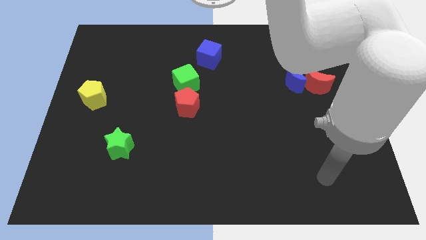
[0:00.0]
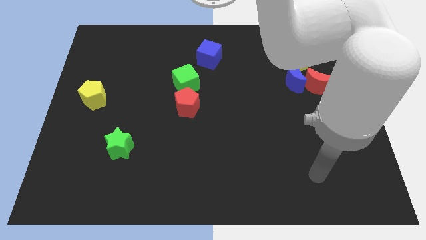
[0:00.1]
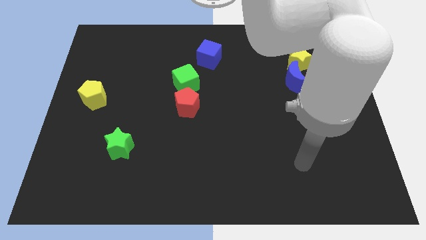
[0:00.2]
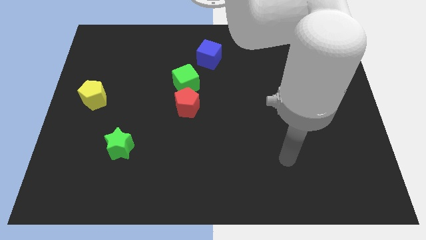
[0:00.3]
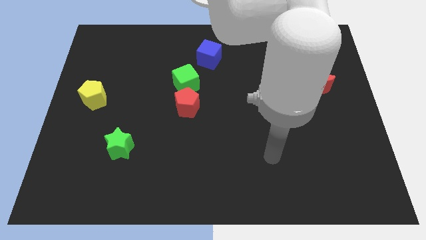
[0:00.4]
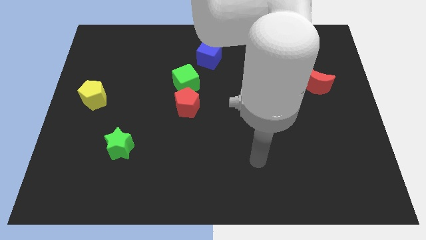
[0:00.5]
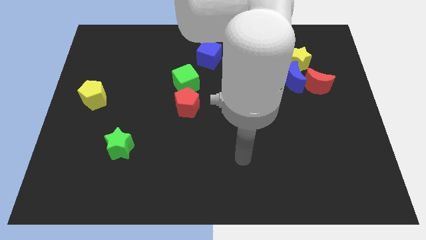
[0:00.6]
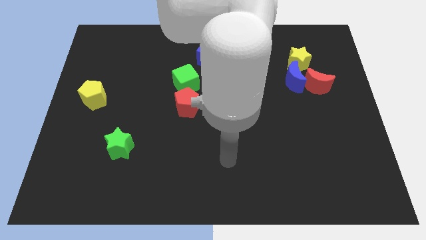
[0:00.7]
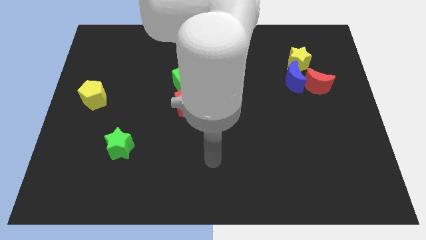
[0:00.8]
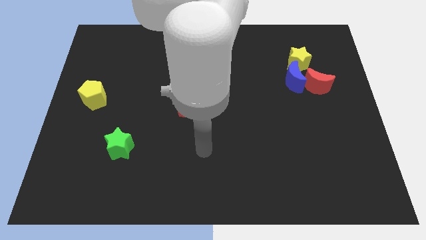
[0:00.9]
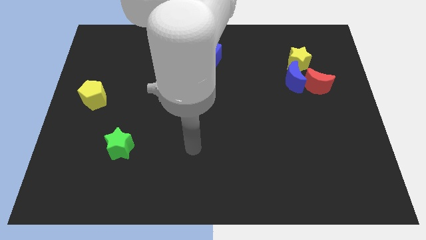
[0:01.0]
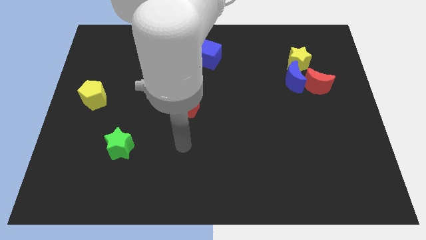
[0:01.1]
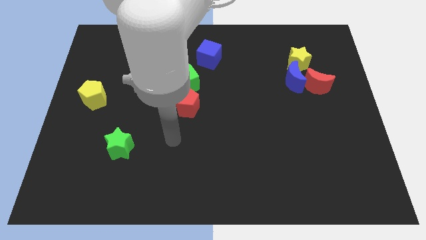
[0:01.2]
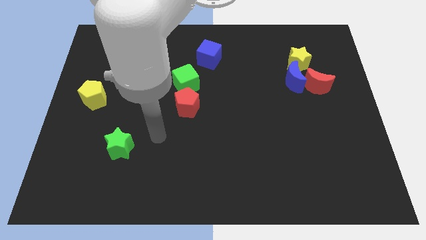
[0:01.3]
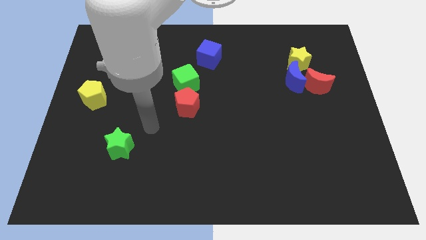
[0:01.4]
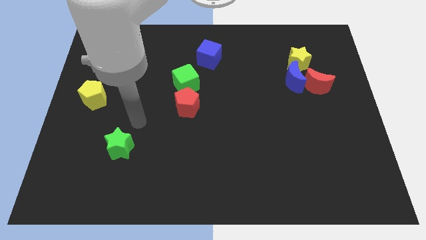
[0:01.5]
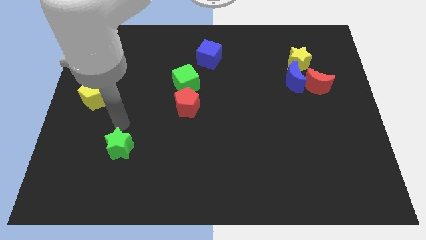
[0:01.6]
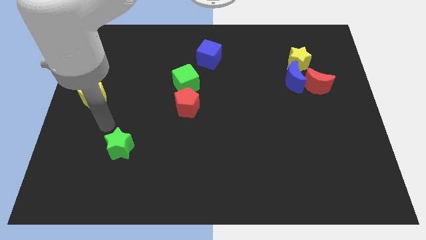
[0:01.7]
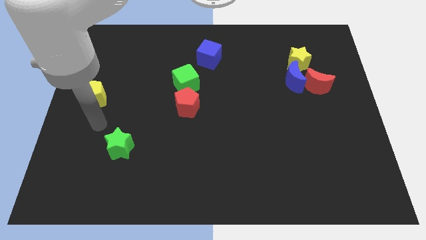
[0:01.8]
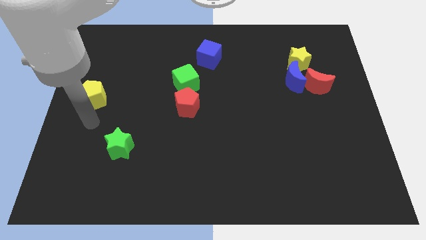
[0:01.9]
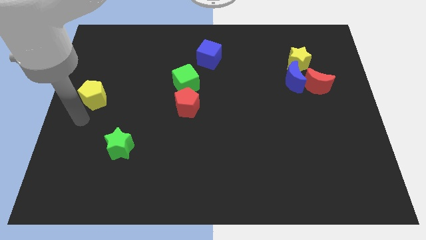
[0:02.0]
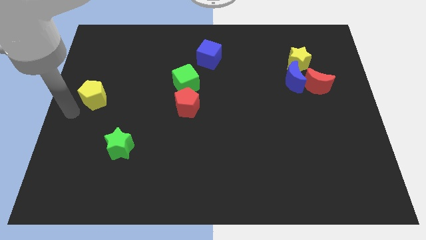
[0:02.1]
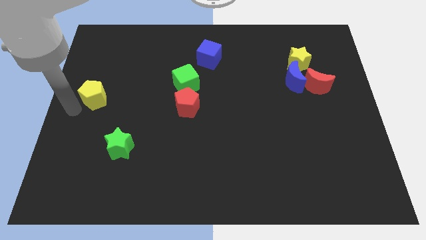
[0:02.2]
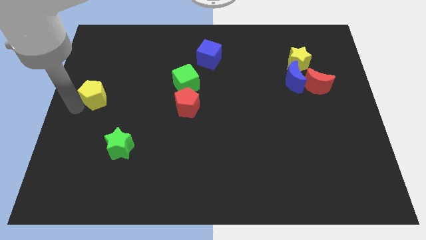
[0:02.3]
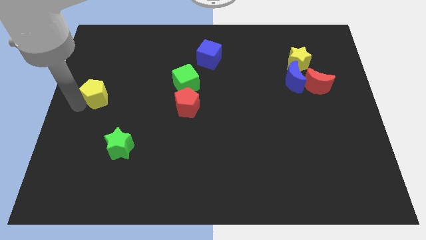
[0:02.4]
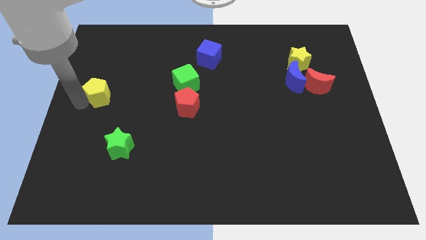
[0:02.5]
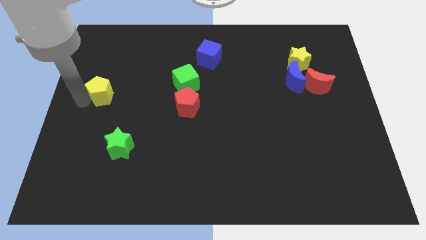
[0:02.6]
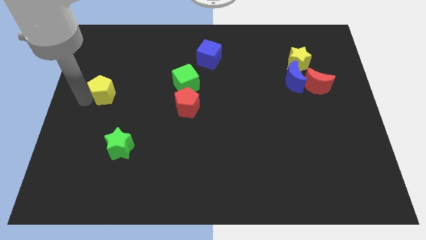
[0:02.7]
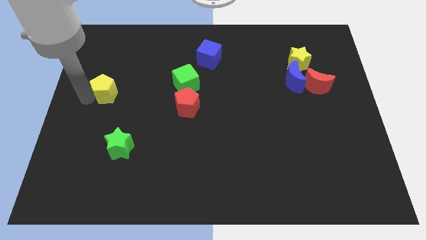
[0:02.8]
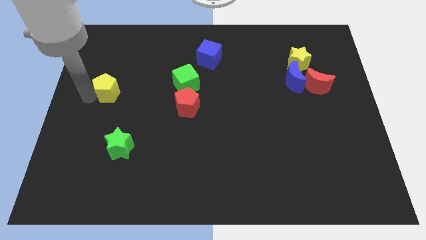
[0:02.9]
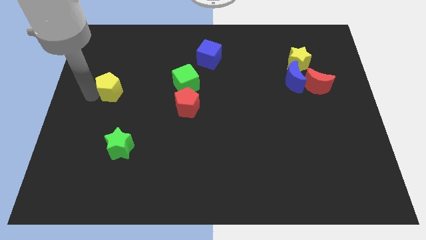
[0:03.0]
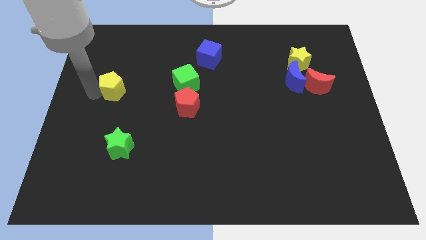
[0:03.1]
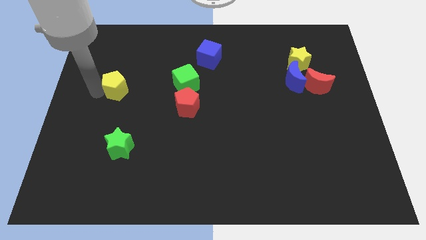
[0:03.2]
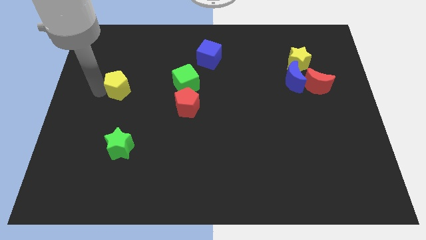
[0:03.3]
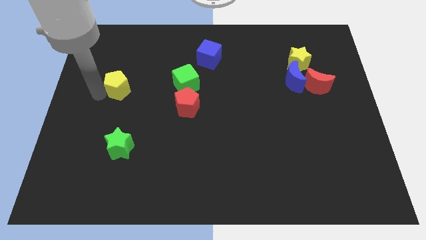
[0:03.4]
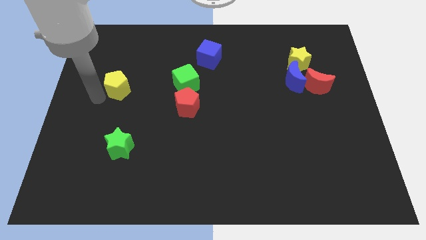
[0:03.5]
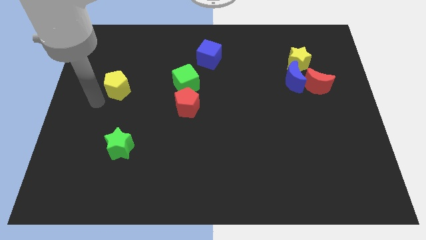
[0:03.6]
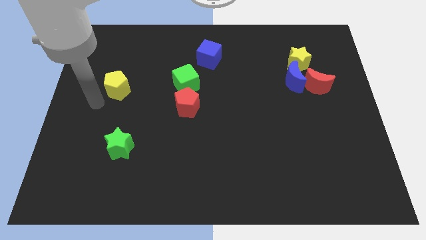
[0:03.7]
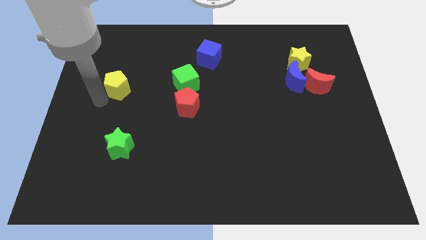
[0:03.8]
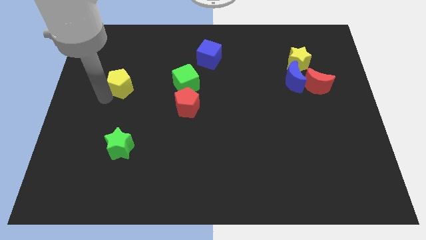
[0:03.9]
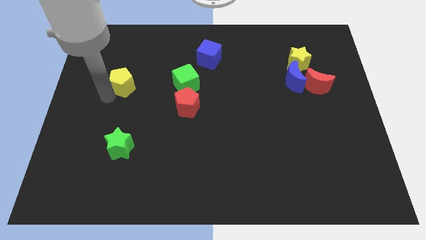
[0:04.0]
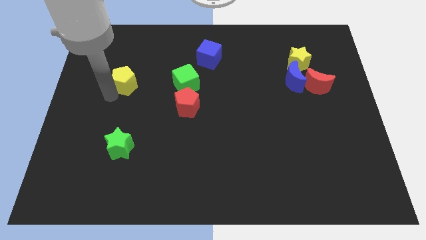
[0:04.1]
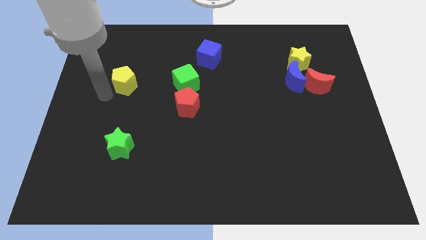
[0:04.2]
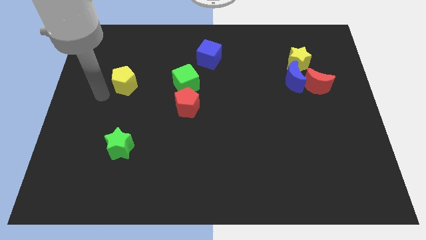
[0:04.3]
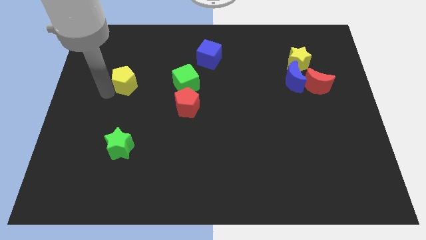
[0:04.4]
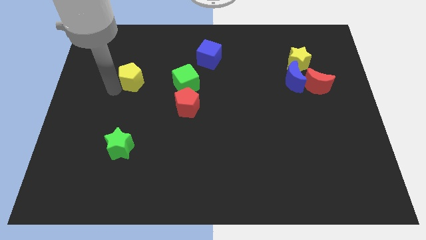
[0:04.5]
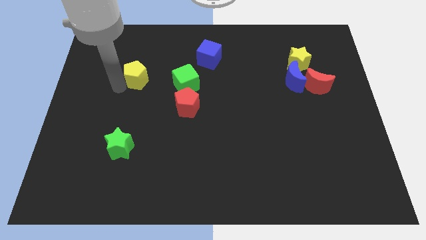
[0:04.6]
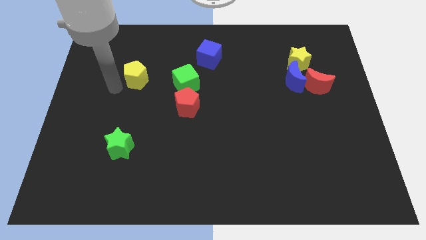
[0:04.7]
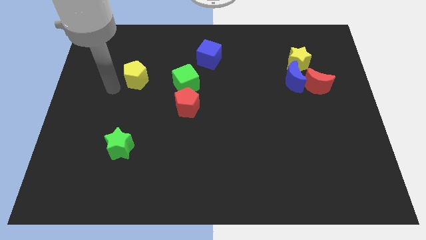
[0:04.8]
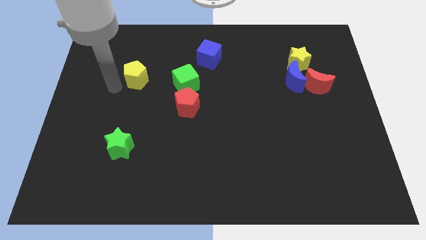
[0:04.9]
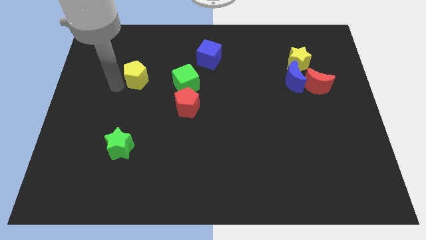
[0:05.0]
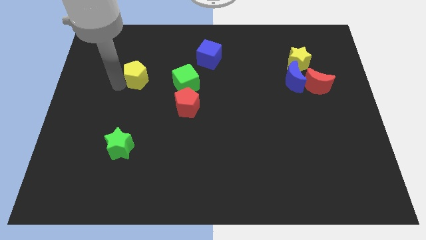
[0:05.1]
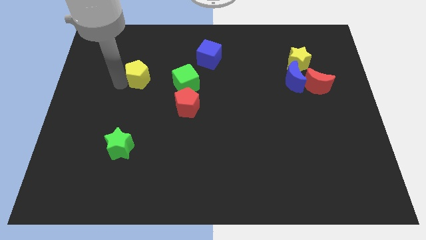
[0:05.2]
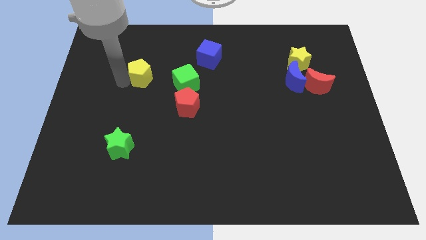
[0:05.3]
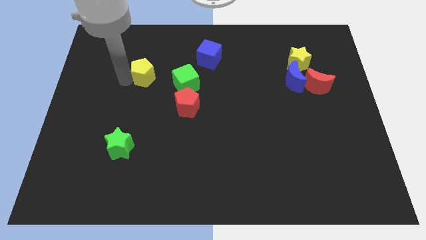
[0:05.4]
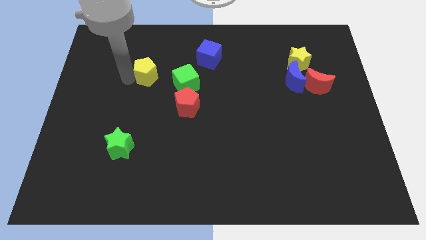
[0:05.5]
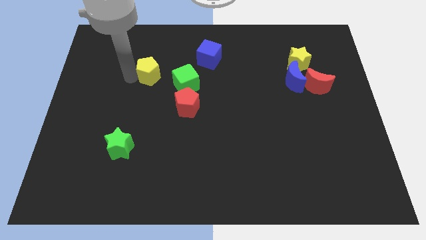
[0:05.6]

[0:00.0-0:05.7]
move the yellow pentagon to the top left side of the green cube

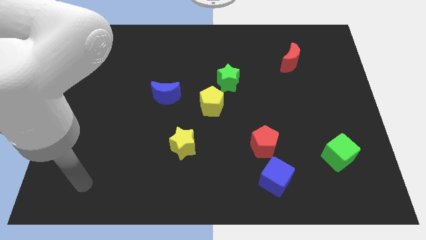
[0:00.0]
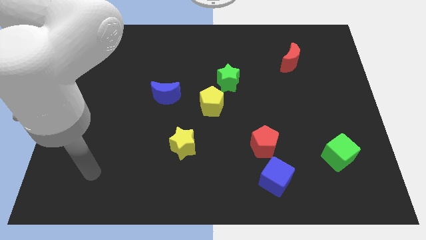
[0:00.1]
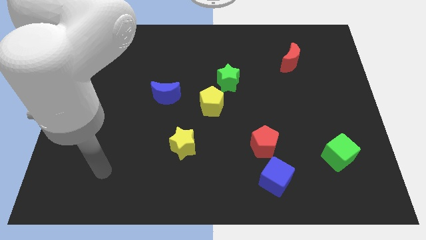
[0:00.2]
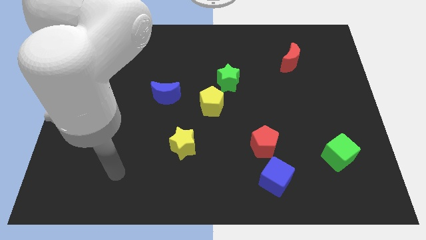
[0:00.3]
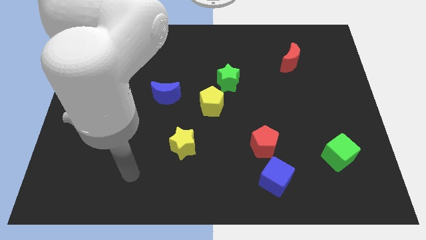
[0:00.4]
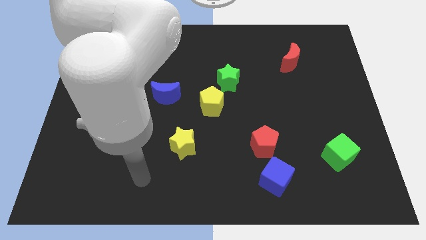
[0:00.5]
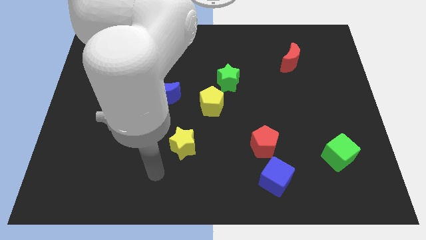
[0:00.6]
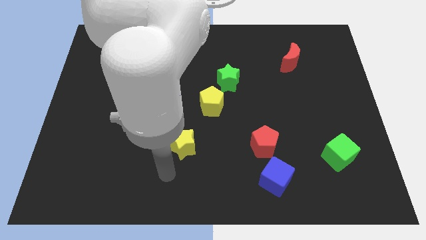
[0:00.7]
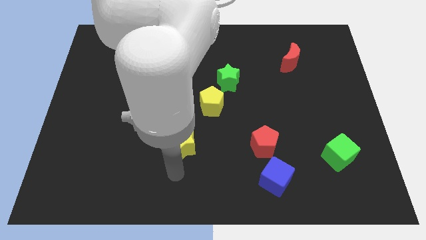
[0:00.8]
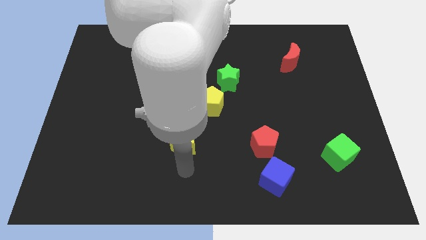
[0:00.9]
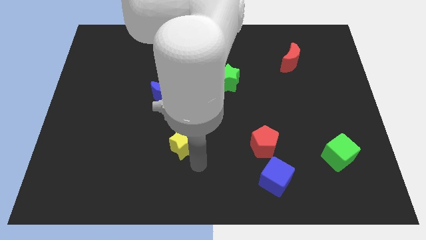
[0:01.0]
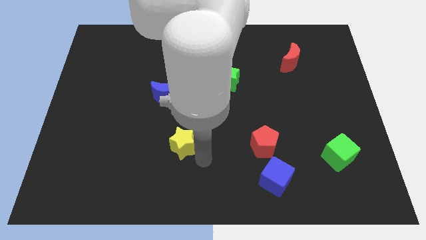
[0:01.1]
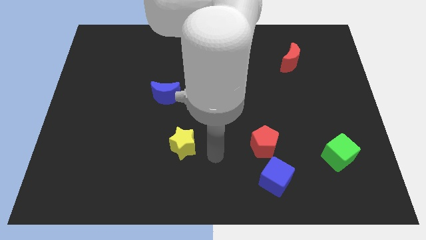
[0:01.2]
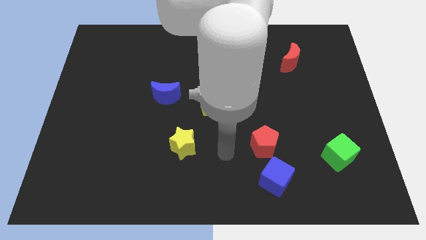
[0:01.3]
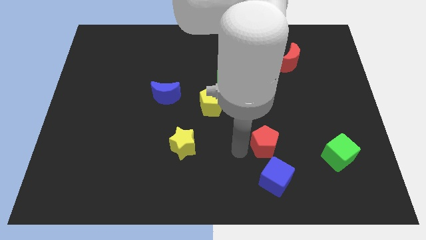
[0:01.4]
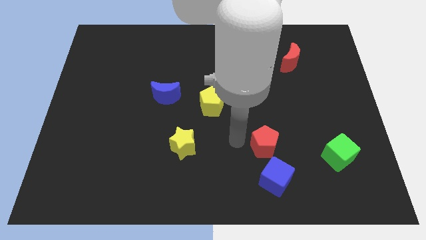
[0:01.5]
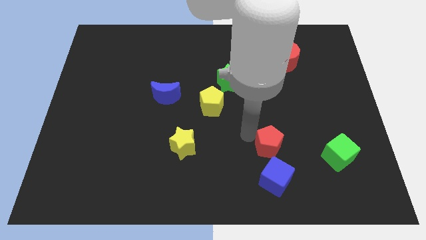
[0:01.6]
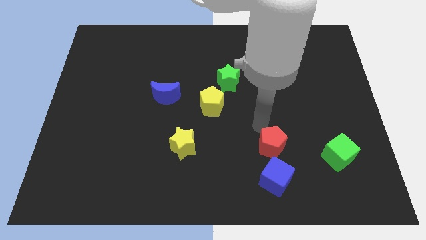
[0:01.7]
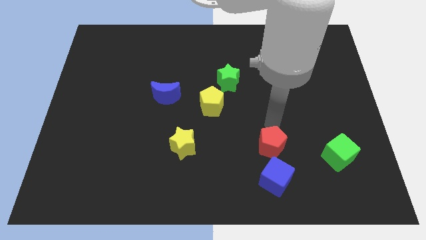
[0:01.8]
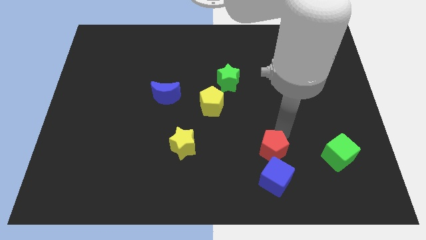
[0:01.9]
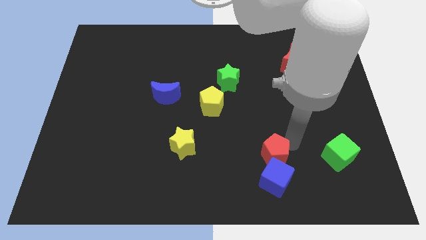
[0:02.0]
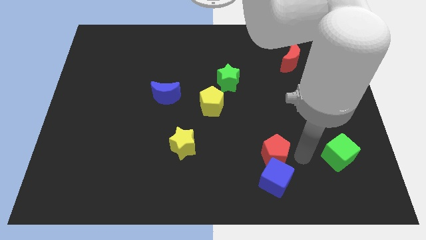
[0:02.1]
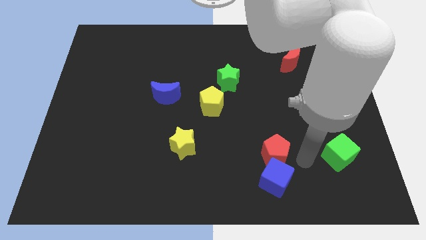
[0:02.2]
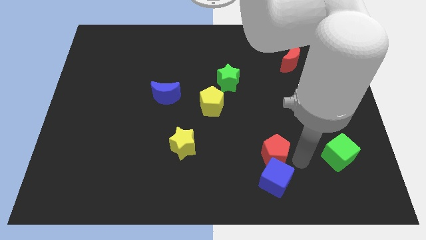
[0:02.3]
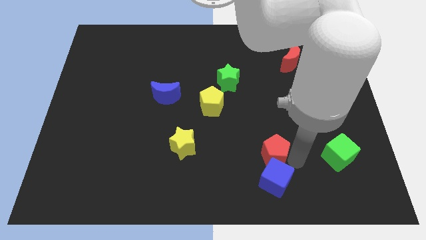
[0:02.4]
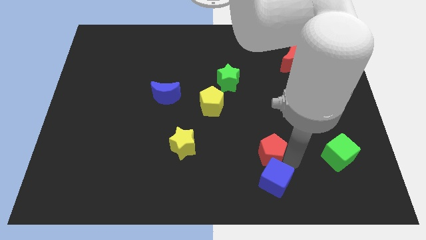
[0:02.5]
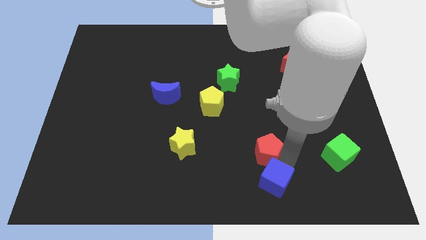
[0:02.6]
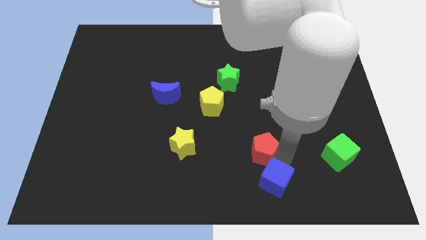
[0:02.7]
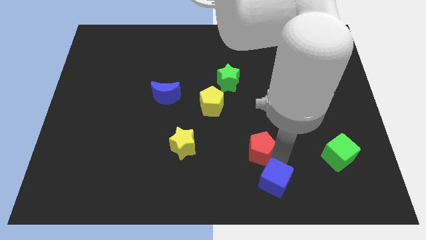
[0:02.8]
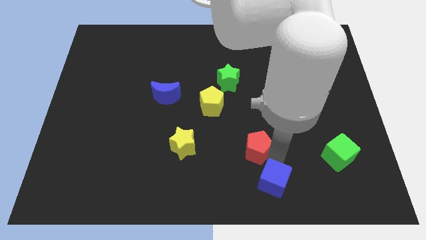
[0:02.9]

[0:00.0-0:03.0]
slide the red pentagon to the right of the yellow star
